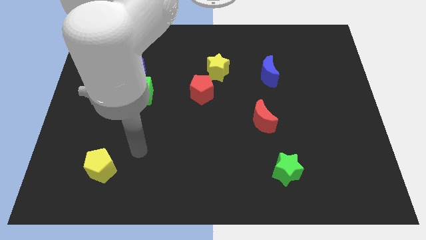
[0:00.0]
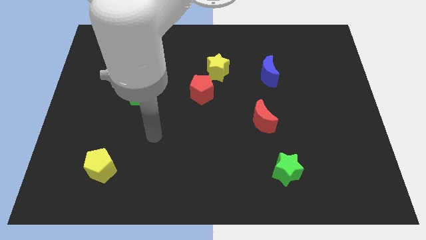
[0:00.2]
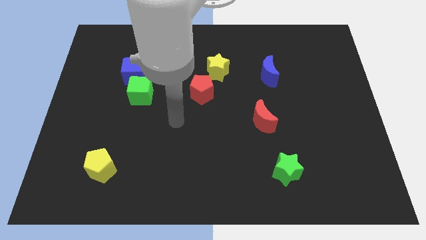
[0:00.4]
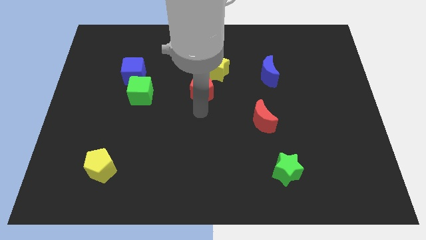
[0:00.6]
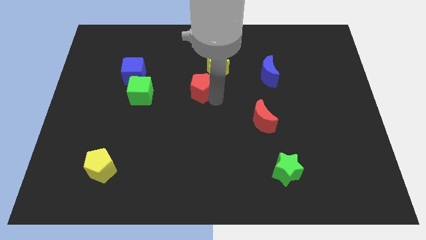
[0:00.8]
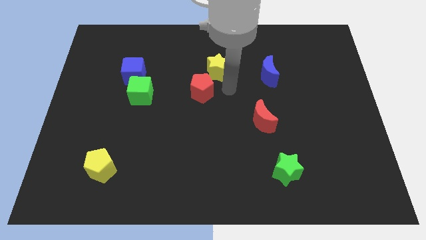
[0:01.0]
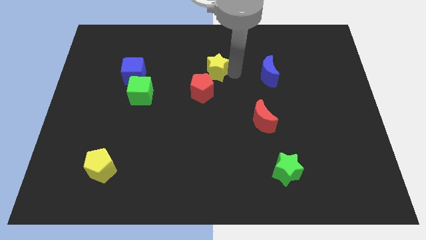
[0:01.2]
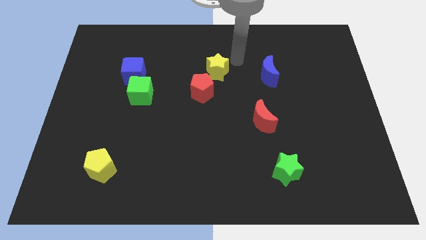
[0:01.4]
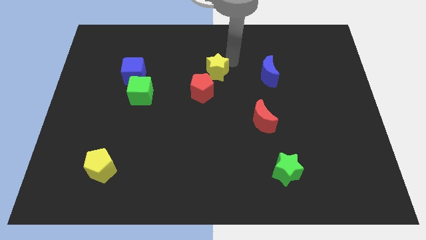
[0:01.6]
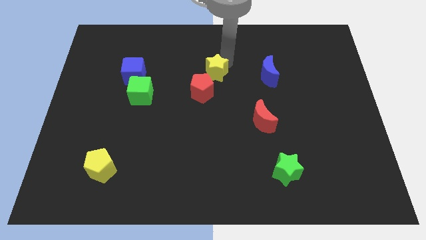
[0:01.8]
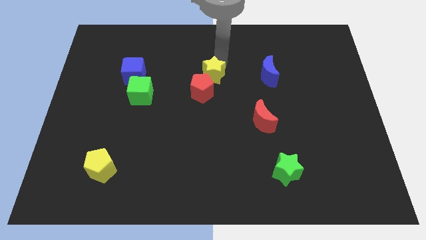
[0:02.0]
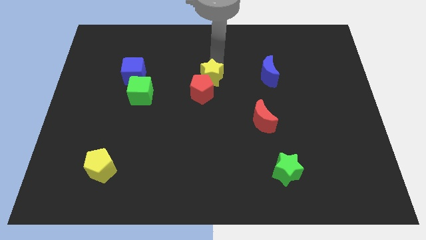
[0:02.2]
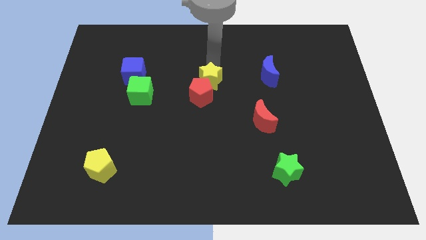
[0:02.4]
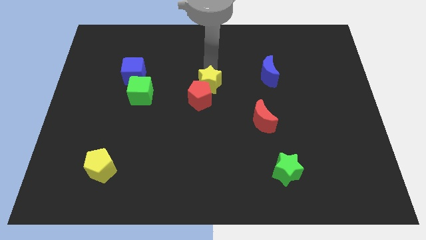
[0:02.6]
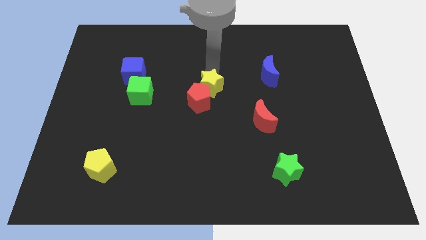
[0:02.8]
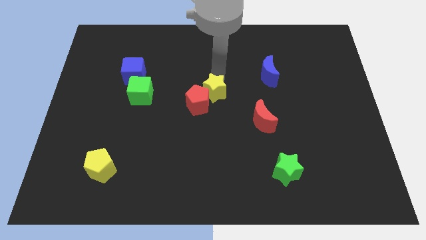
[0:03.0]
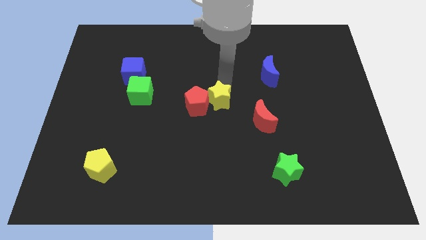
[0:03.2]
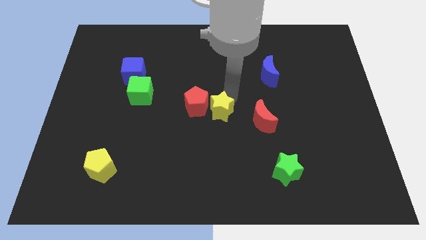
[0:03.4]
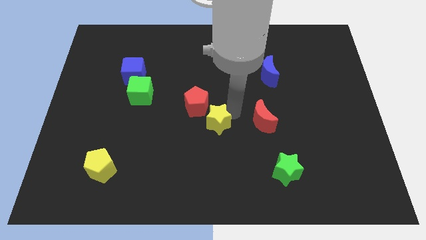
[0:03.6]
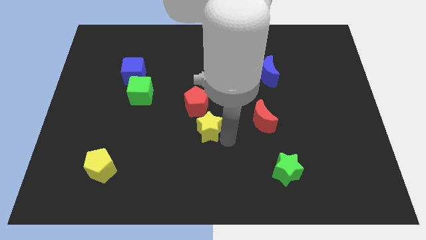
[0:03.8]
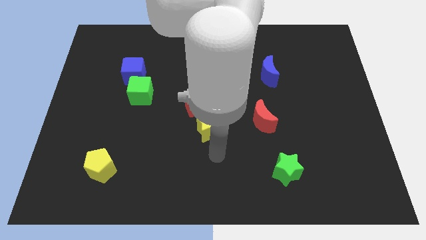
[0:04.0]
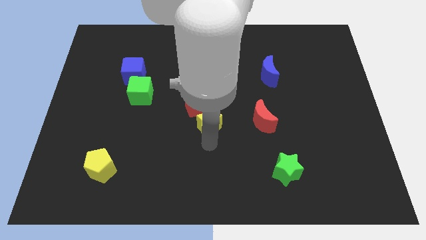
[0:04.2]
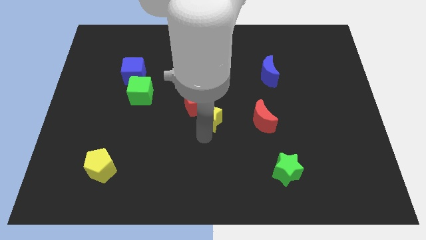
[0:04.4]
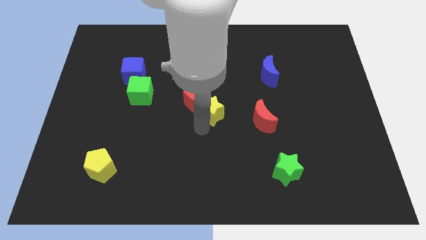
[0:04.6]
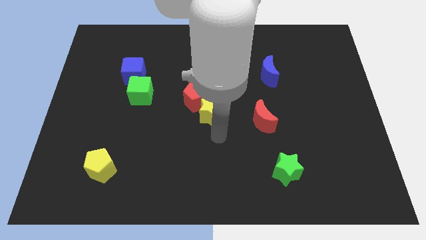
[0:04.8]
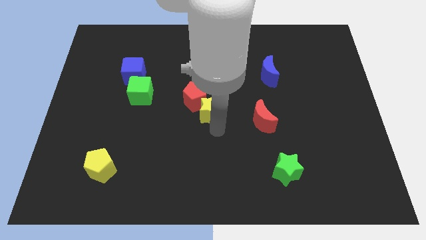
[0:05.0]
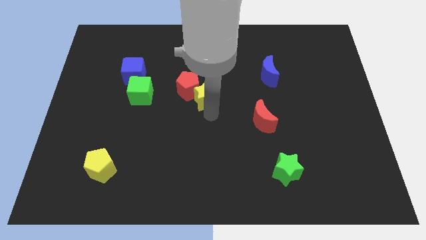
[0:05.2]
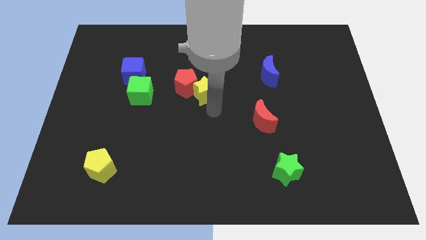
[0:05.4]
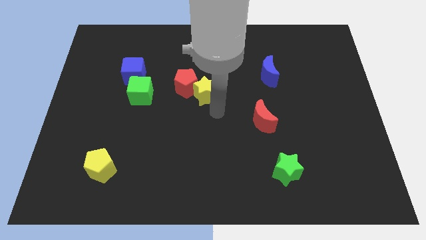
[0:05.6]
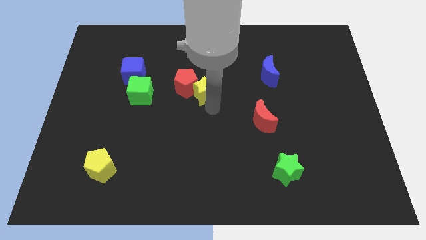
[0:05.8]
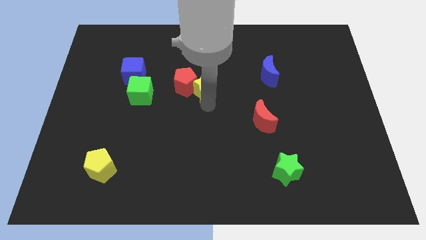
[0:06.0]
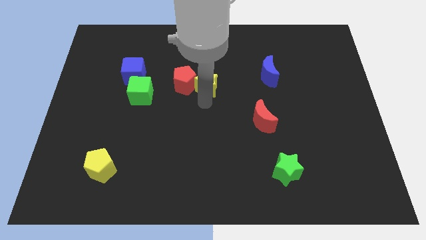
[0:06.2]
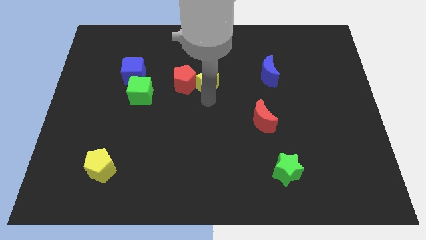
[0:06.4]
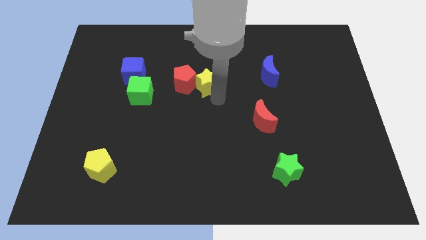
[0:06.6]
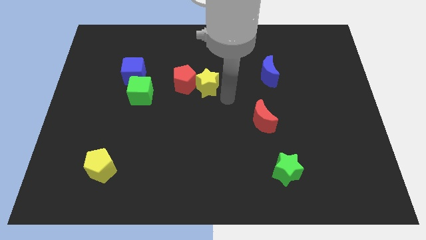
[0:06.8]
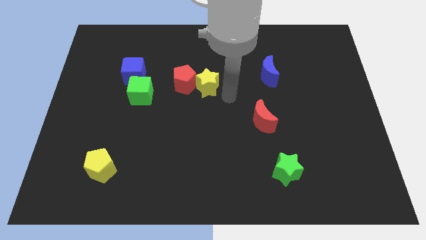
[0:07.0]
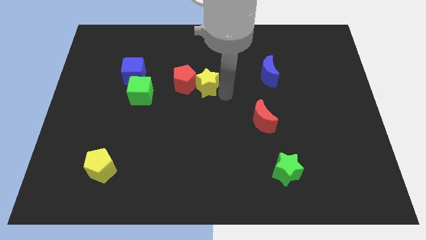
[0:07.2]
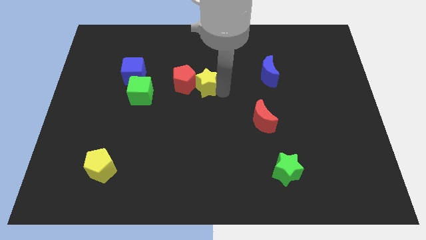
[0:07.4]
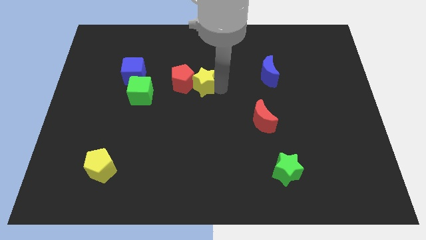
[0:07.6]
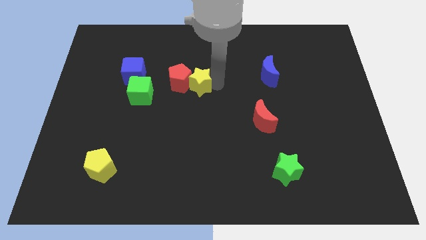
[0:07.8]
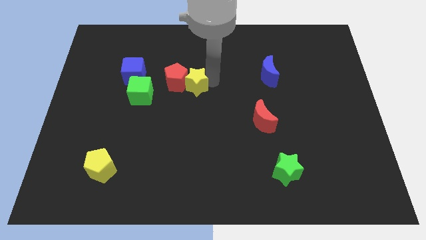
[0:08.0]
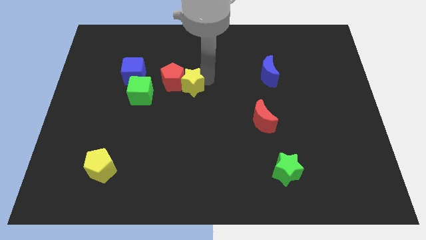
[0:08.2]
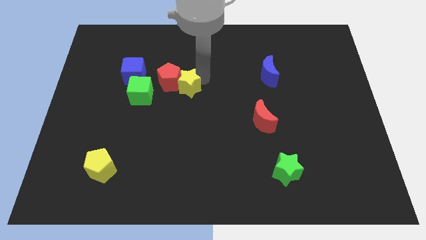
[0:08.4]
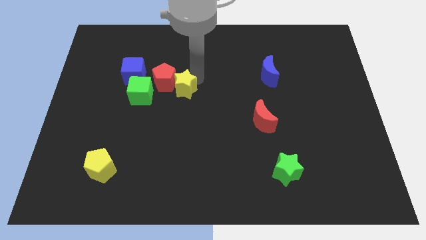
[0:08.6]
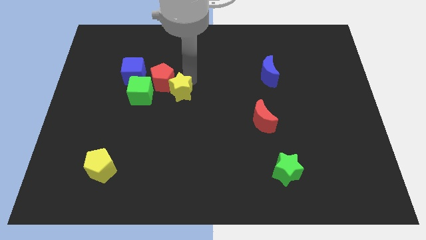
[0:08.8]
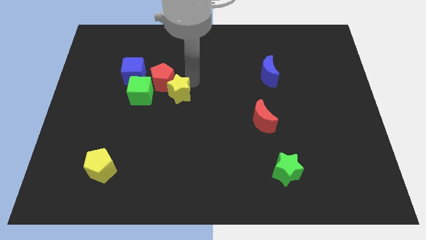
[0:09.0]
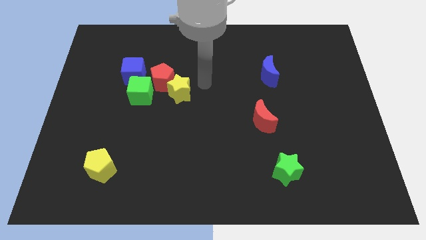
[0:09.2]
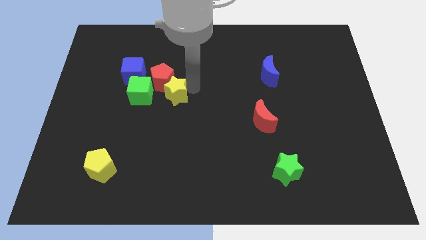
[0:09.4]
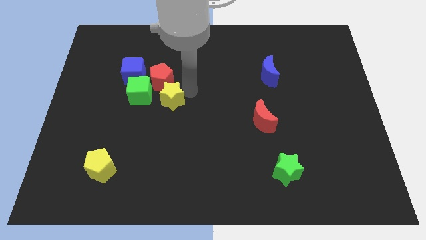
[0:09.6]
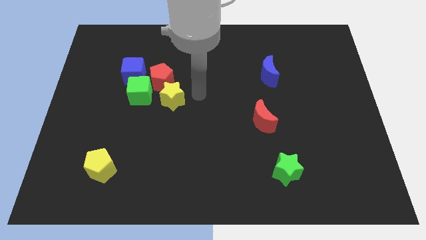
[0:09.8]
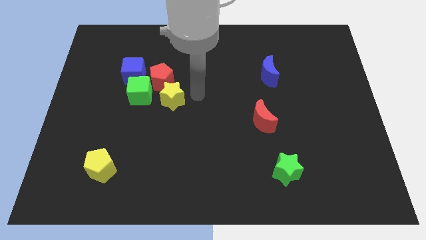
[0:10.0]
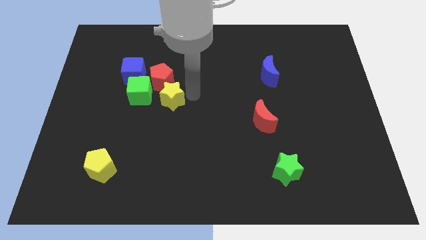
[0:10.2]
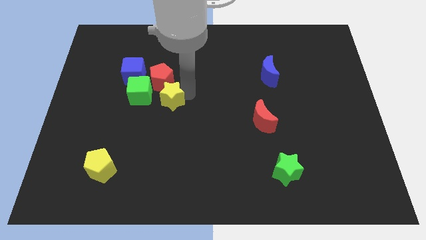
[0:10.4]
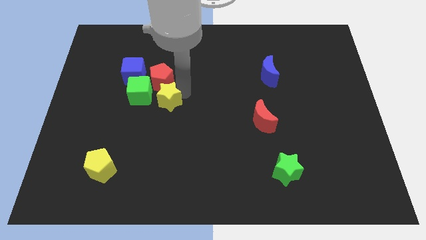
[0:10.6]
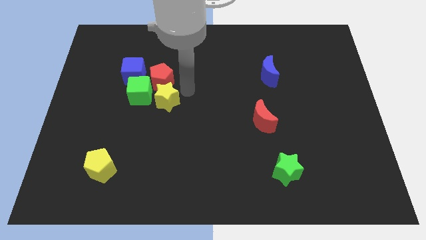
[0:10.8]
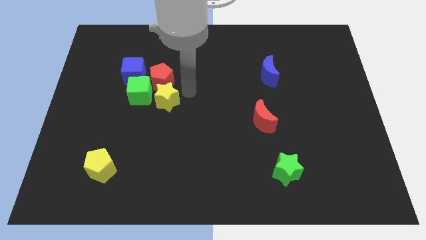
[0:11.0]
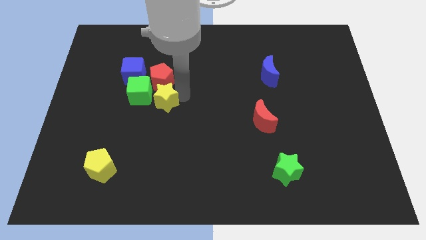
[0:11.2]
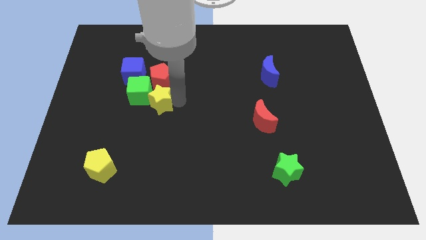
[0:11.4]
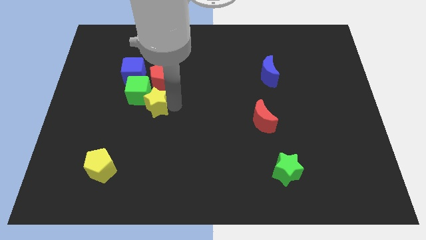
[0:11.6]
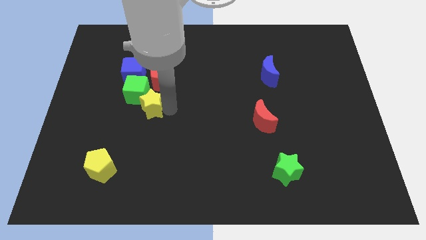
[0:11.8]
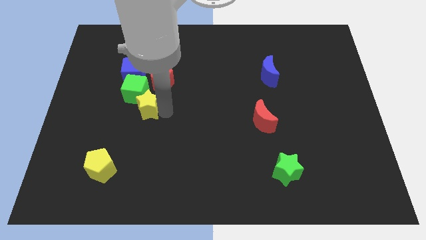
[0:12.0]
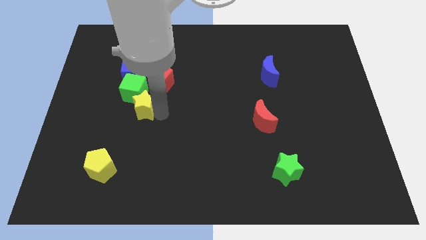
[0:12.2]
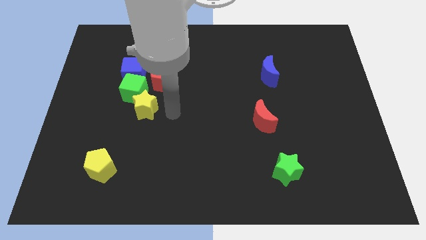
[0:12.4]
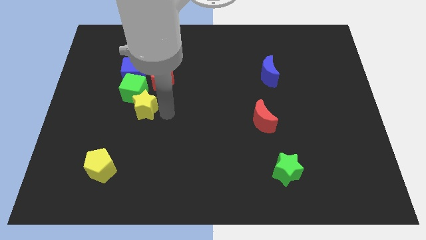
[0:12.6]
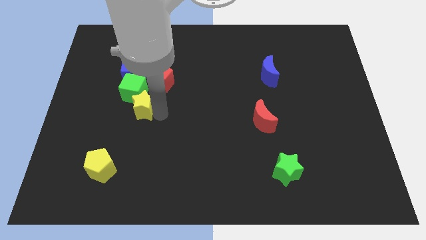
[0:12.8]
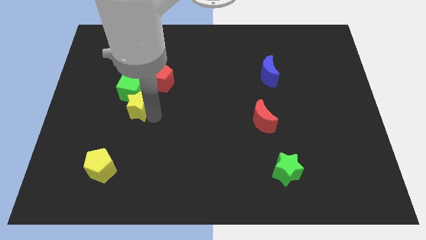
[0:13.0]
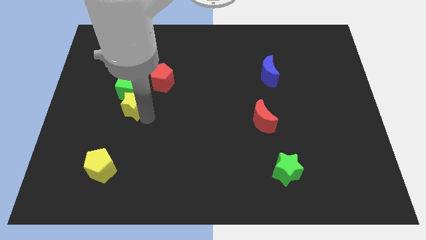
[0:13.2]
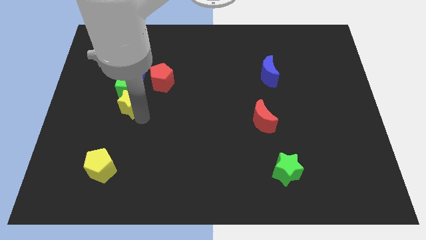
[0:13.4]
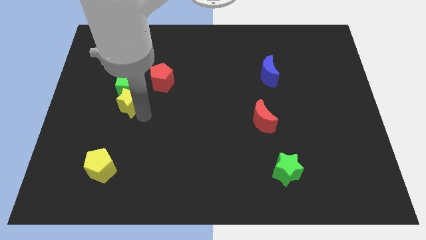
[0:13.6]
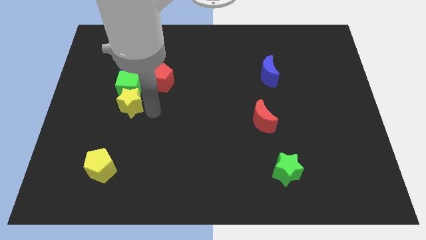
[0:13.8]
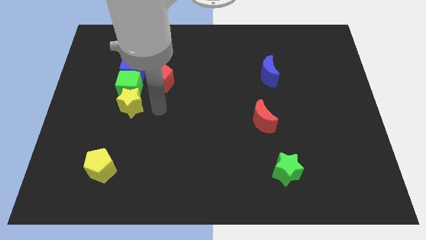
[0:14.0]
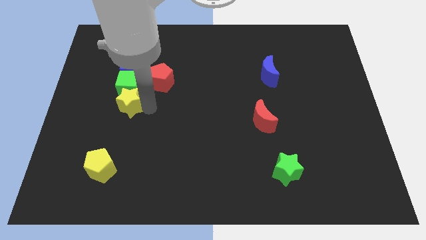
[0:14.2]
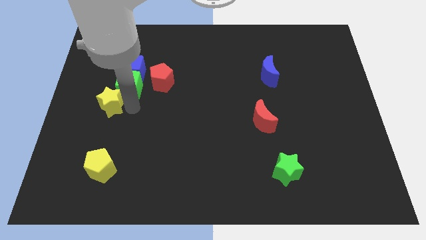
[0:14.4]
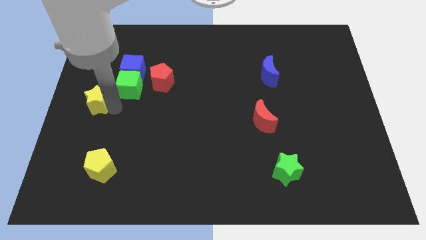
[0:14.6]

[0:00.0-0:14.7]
move the yellow star left of the green cube
